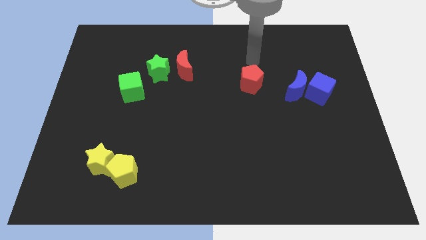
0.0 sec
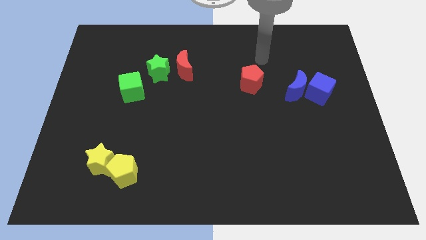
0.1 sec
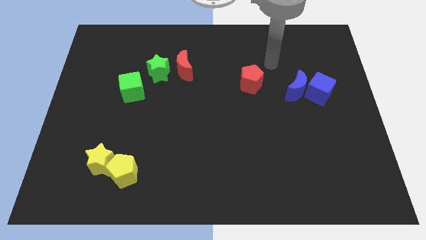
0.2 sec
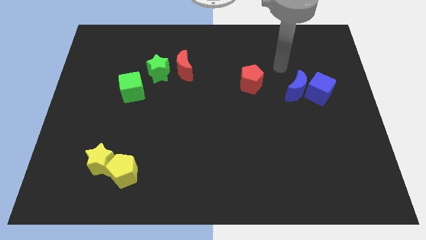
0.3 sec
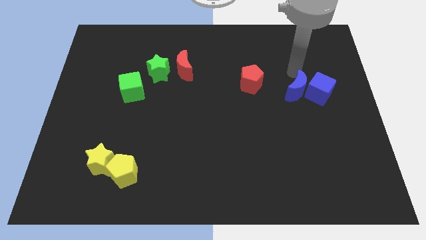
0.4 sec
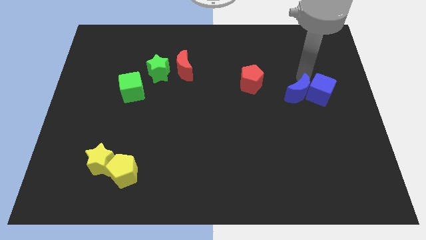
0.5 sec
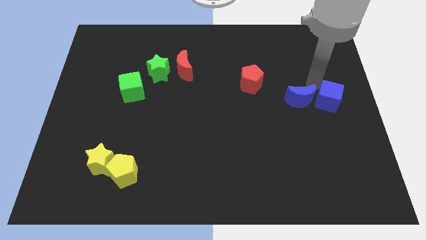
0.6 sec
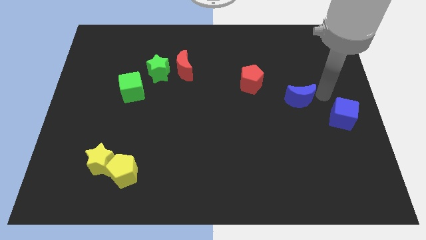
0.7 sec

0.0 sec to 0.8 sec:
pull the blue moon apart from the blue cube

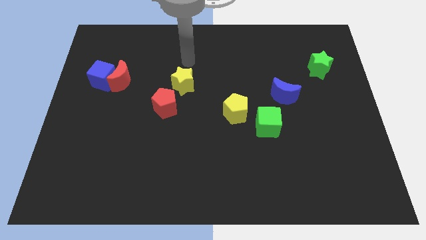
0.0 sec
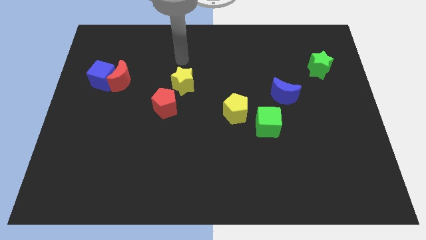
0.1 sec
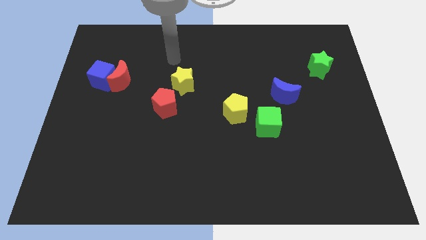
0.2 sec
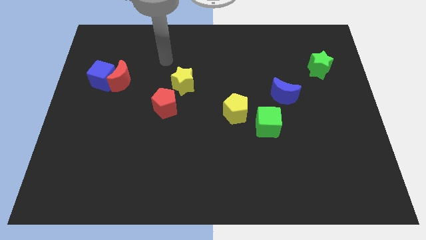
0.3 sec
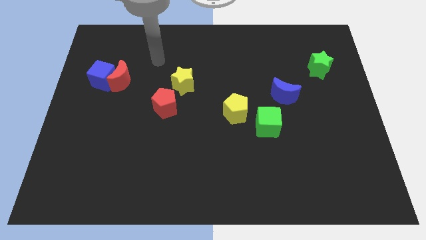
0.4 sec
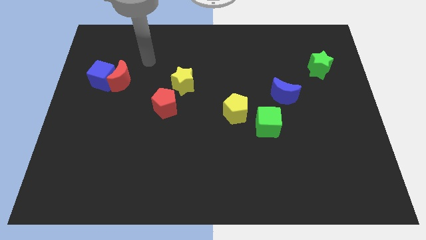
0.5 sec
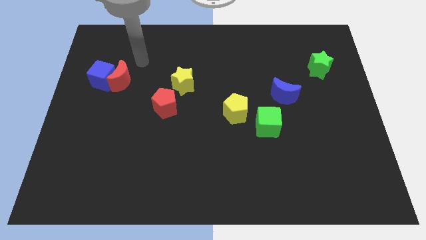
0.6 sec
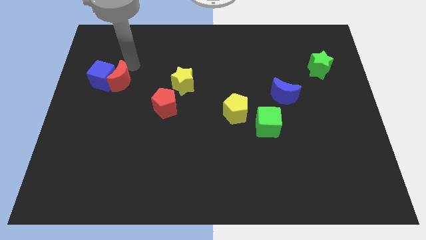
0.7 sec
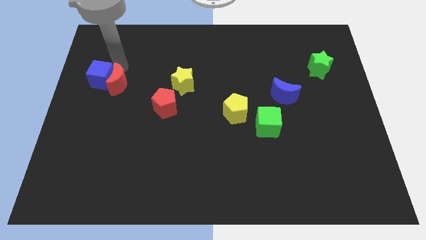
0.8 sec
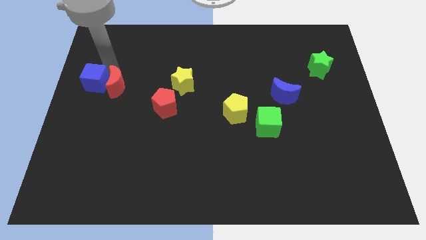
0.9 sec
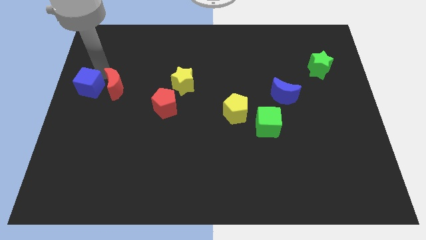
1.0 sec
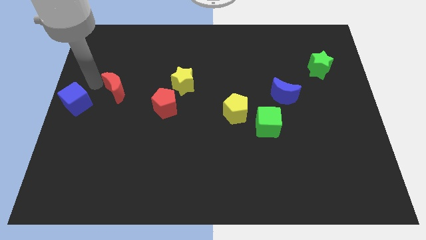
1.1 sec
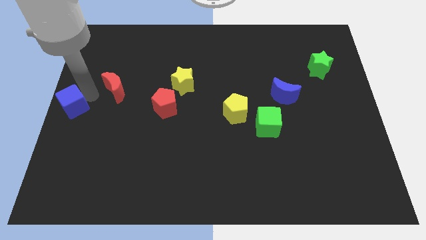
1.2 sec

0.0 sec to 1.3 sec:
pull the red moon apart from the blue cube

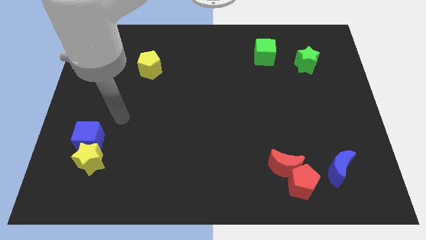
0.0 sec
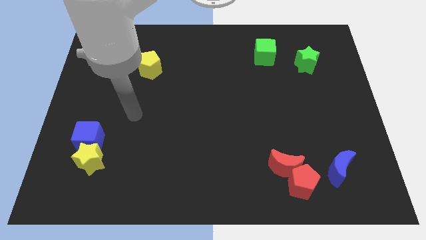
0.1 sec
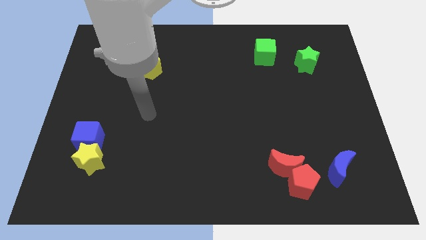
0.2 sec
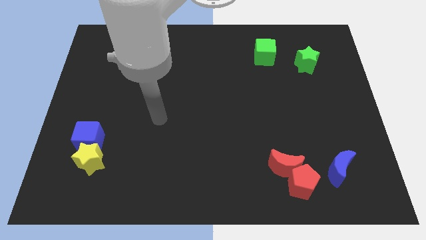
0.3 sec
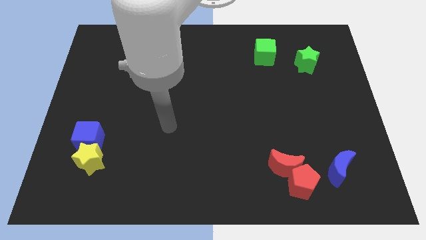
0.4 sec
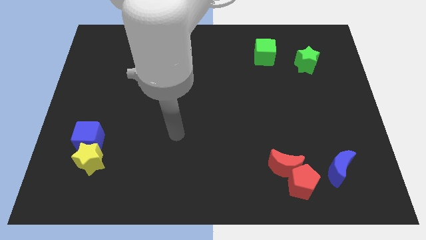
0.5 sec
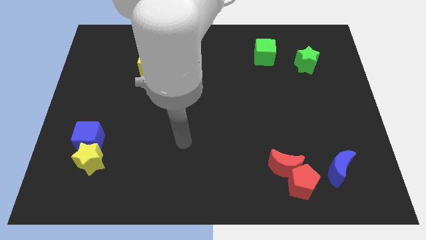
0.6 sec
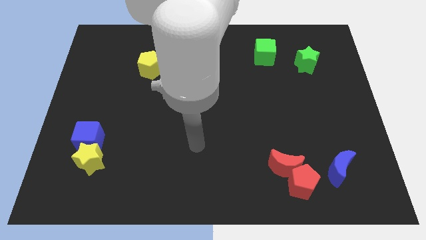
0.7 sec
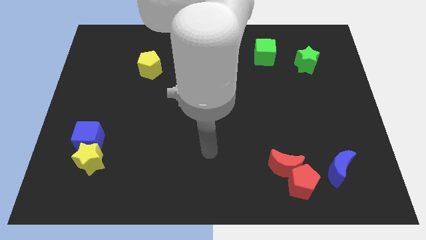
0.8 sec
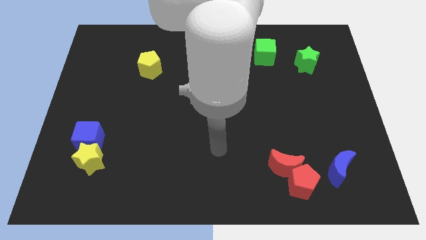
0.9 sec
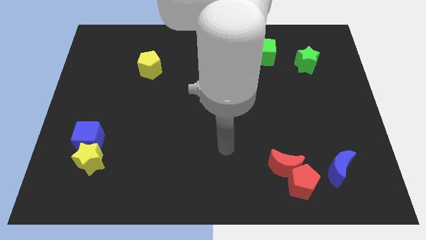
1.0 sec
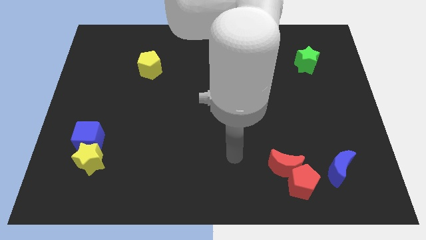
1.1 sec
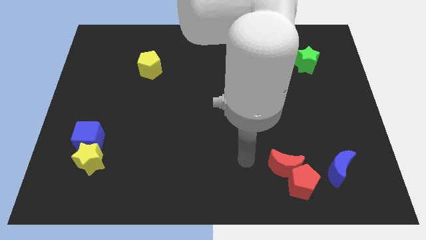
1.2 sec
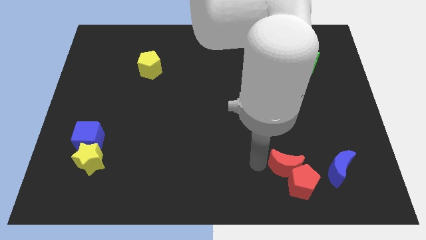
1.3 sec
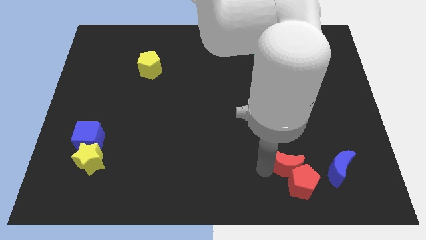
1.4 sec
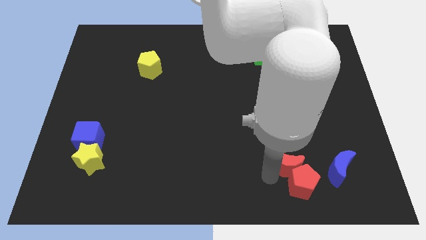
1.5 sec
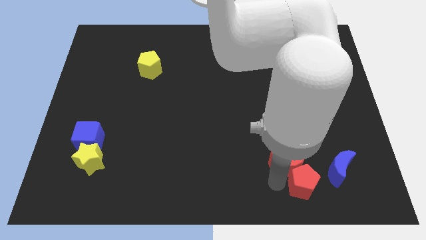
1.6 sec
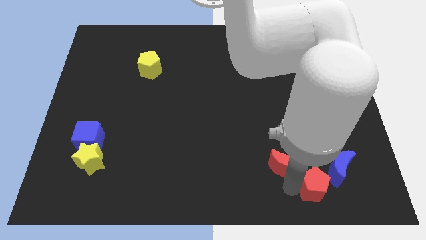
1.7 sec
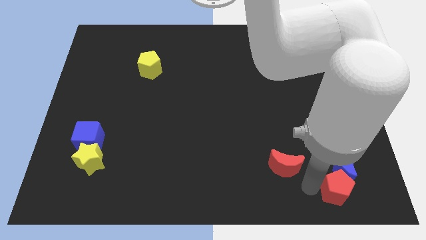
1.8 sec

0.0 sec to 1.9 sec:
pull the red moon apart from the red pentagon

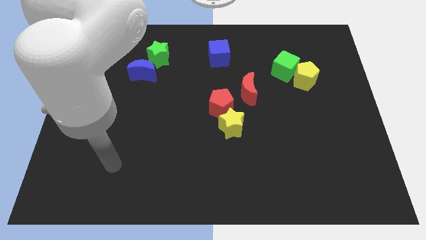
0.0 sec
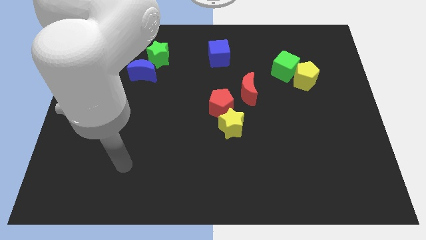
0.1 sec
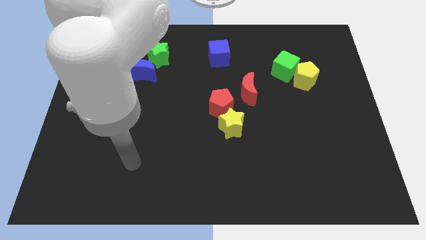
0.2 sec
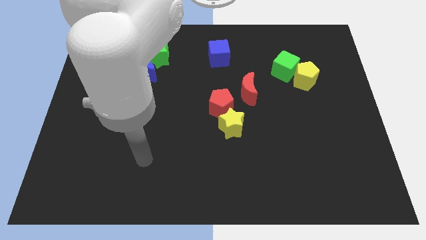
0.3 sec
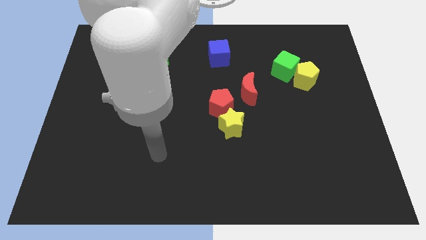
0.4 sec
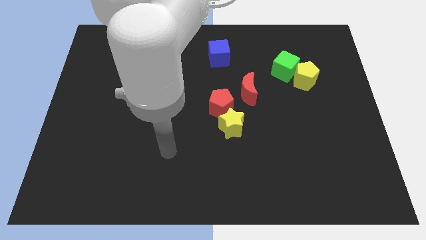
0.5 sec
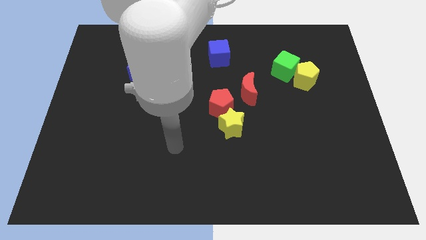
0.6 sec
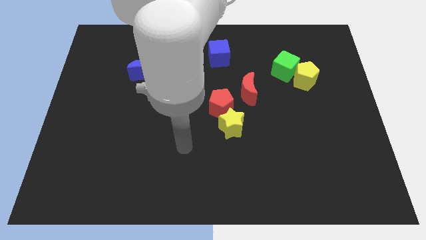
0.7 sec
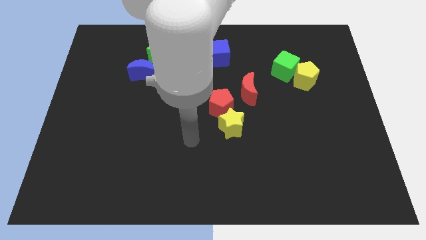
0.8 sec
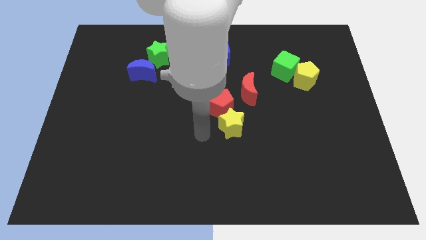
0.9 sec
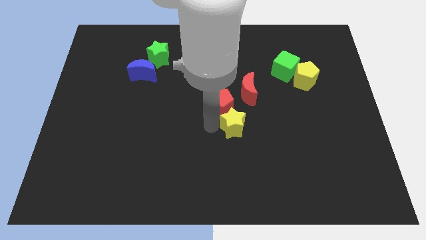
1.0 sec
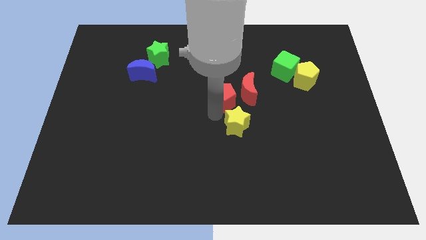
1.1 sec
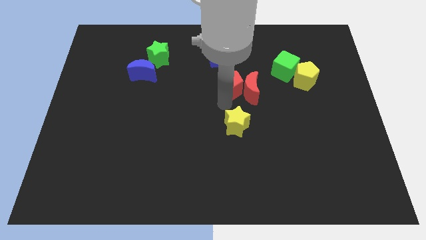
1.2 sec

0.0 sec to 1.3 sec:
move the yellow star away from the red pentagon

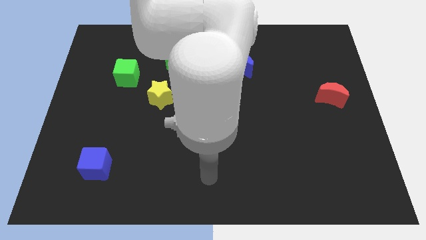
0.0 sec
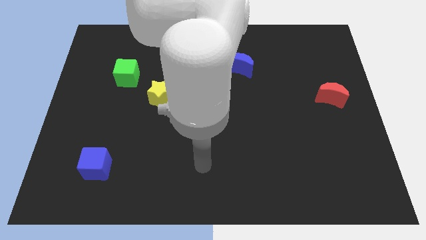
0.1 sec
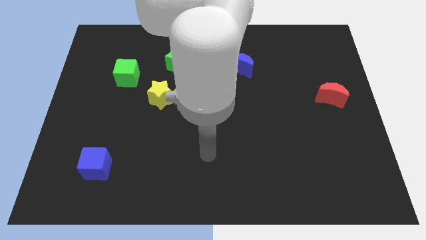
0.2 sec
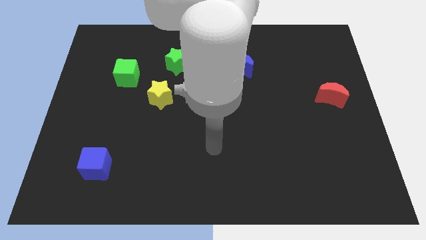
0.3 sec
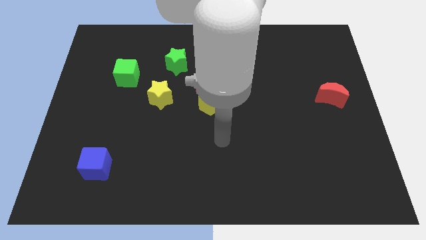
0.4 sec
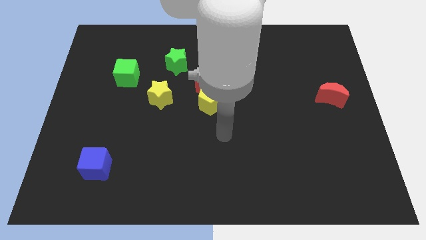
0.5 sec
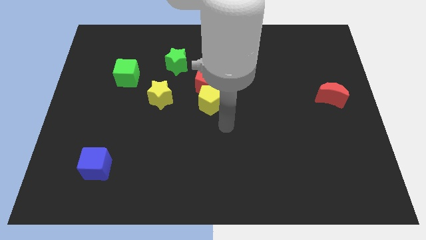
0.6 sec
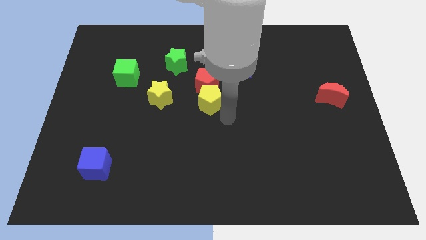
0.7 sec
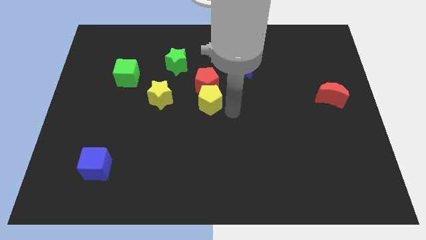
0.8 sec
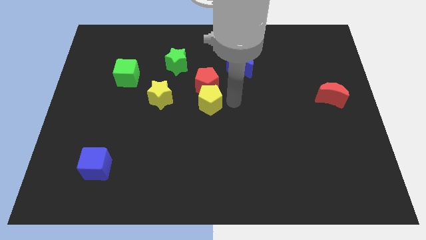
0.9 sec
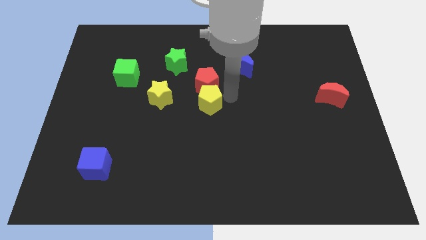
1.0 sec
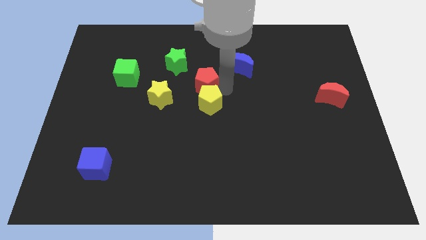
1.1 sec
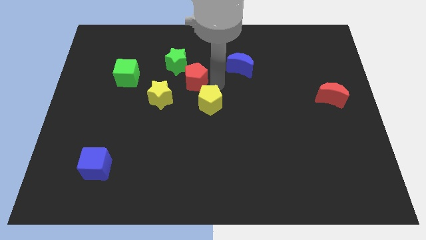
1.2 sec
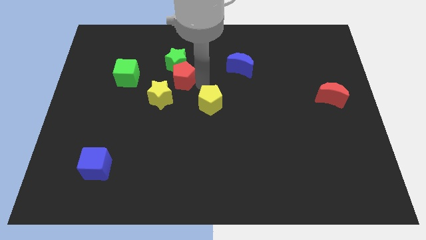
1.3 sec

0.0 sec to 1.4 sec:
pull the yellow pentagon apart from the red pentagon

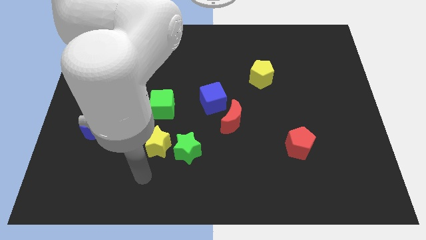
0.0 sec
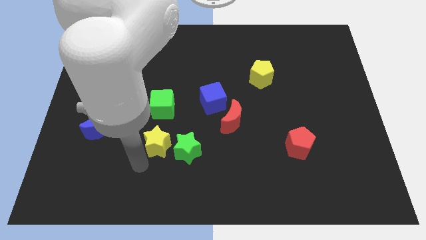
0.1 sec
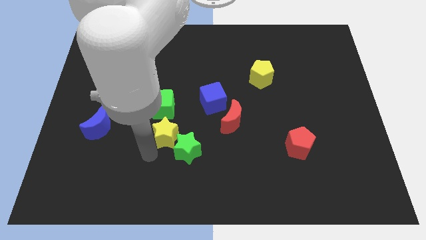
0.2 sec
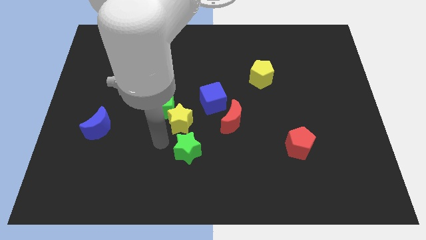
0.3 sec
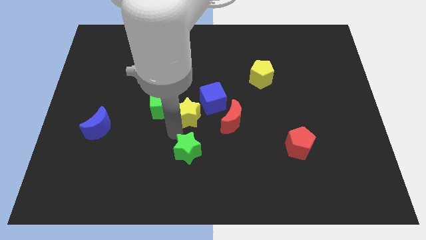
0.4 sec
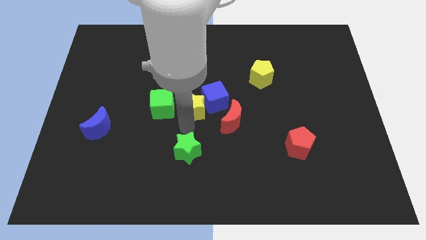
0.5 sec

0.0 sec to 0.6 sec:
separate the green star from the yellow star

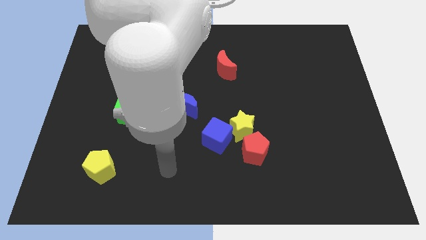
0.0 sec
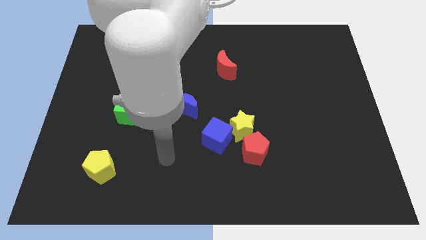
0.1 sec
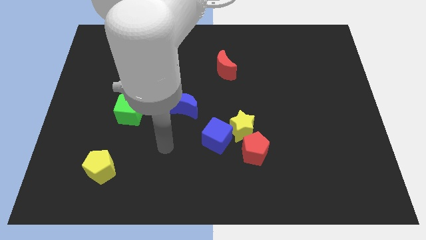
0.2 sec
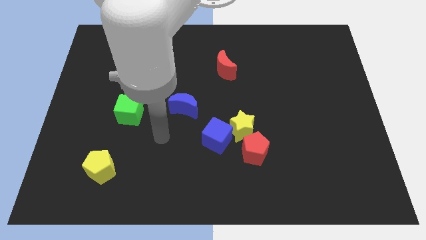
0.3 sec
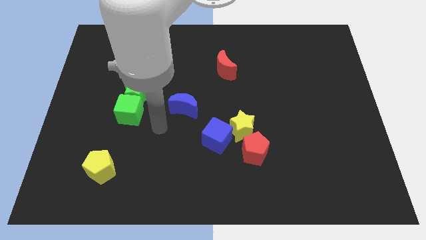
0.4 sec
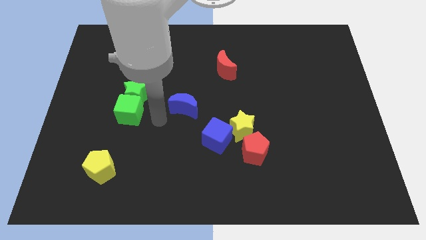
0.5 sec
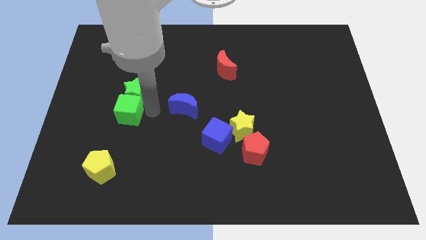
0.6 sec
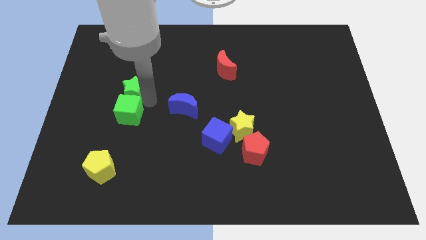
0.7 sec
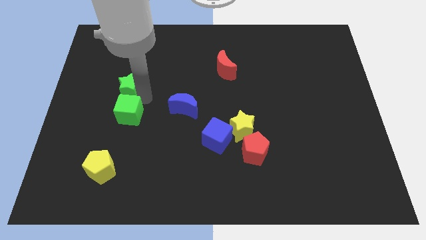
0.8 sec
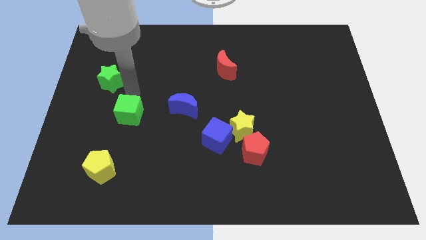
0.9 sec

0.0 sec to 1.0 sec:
separate the green cube from the green star

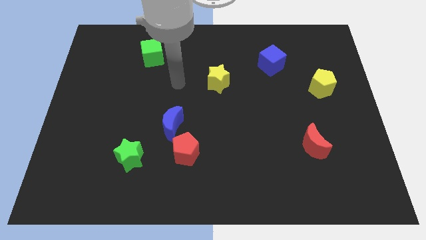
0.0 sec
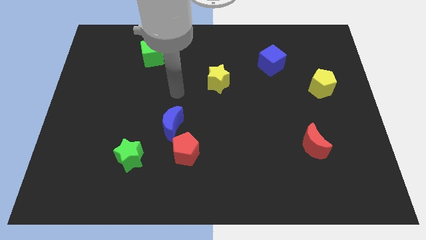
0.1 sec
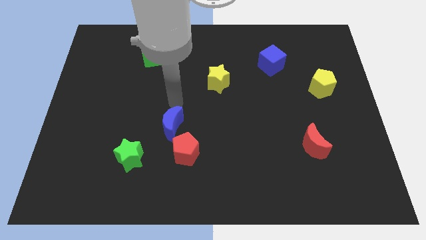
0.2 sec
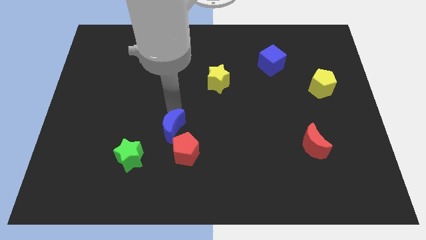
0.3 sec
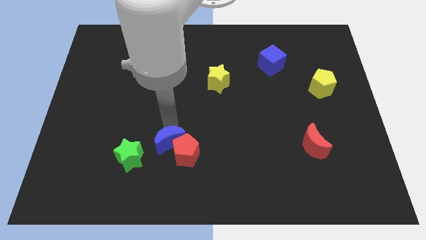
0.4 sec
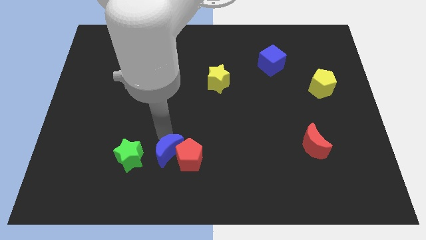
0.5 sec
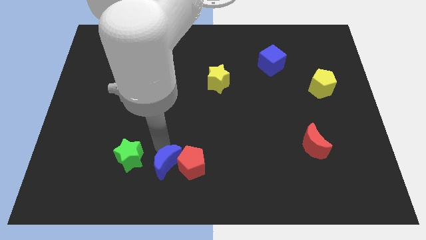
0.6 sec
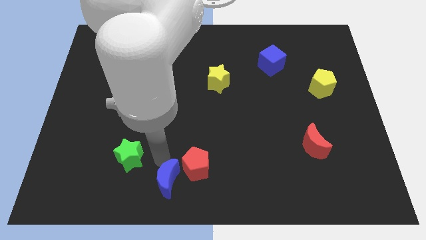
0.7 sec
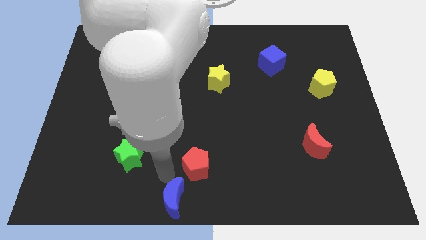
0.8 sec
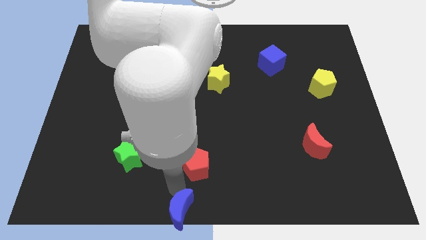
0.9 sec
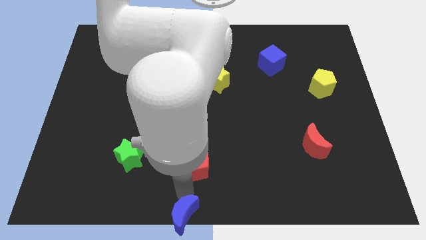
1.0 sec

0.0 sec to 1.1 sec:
separate the red pentagon from the blue moon
